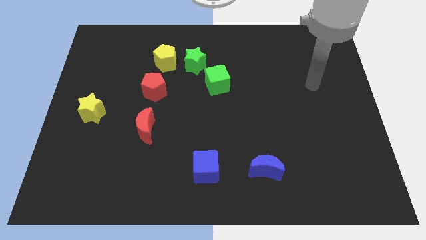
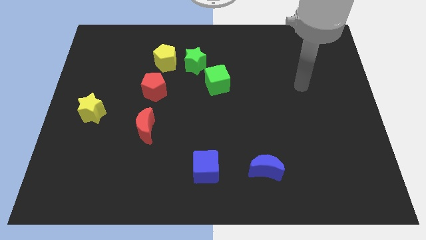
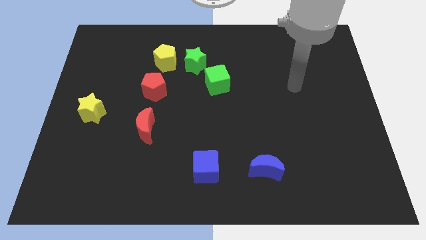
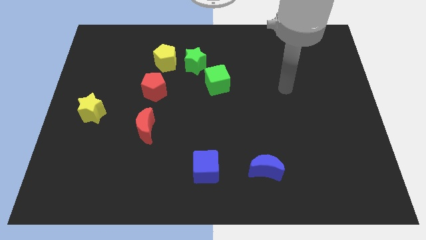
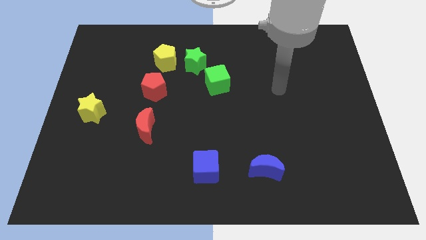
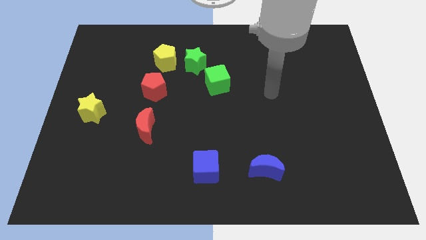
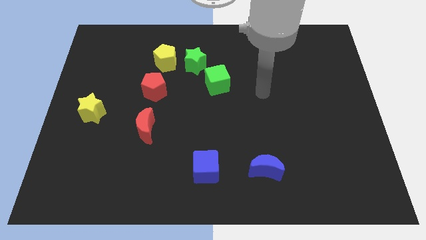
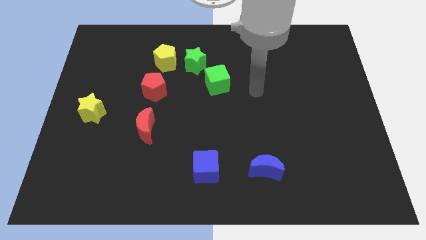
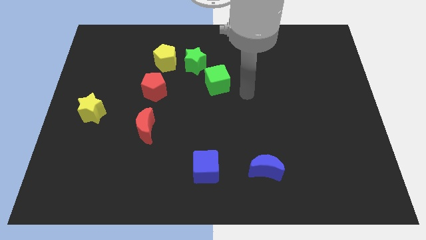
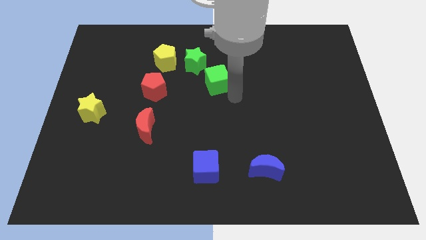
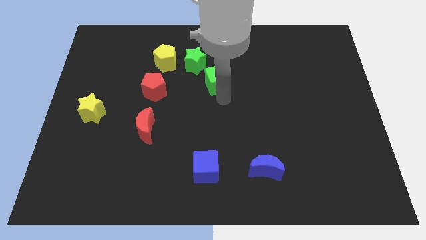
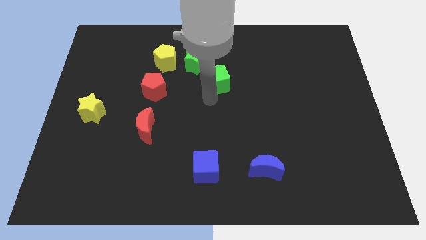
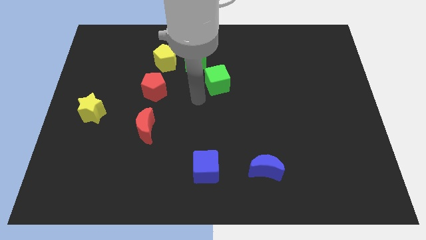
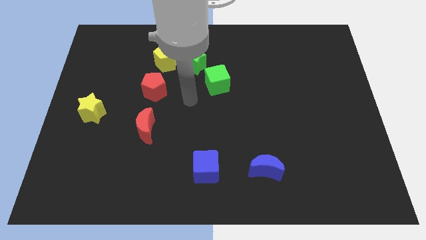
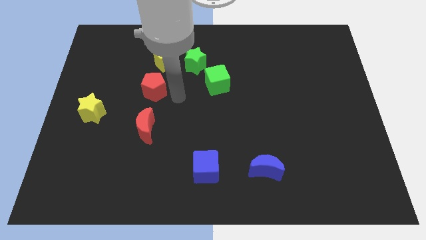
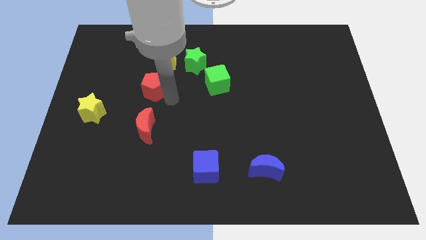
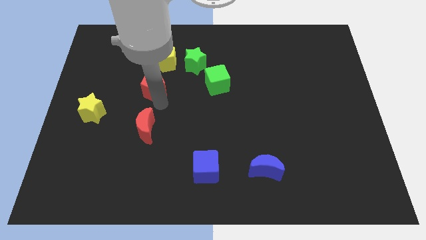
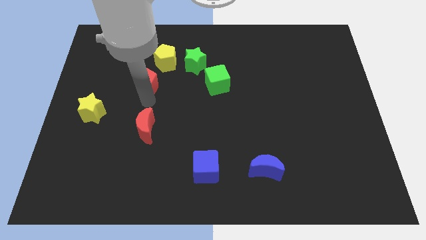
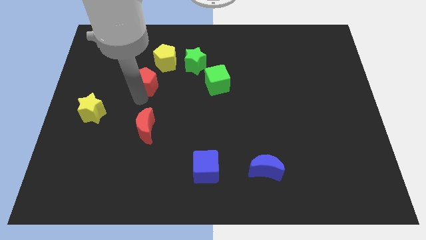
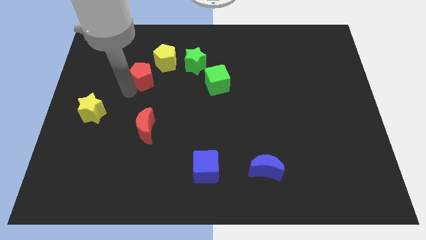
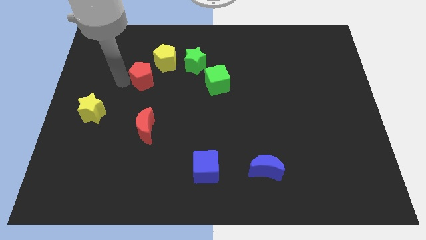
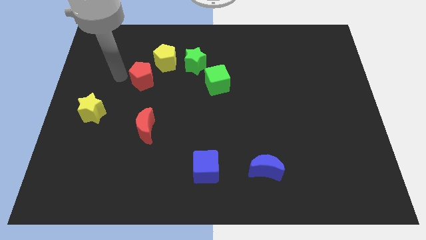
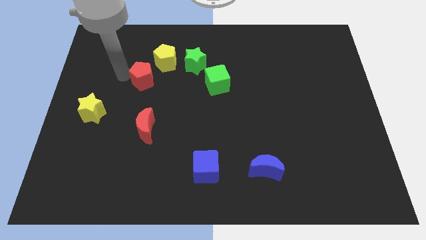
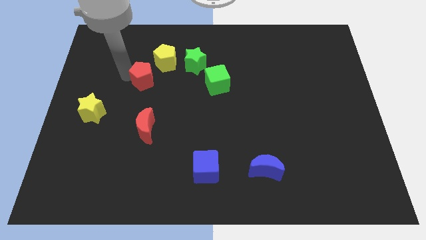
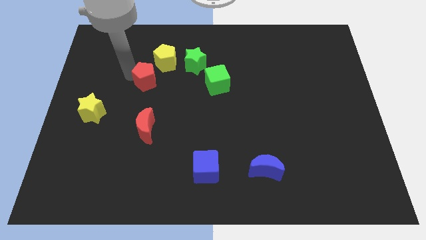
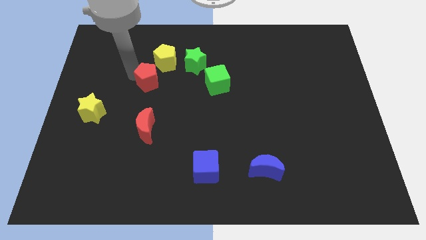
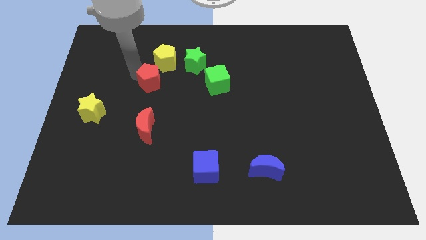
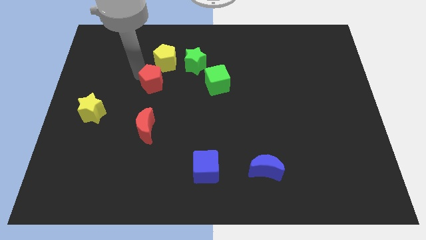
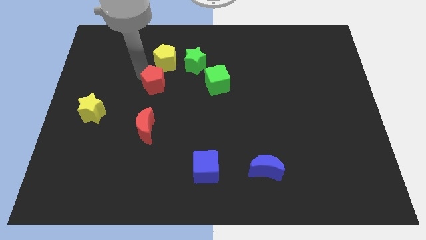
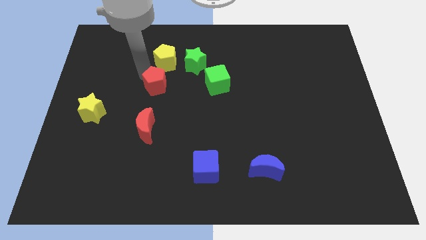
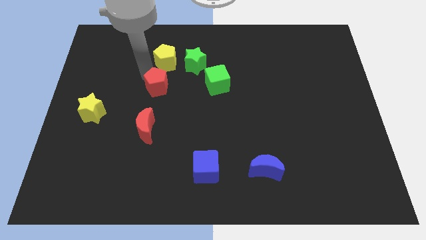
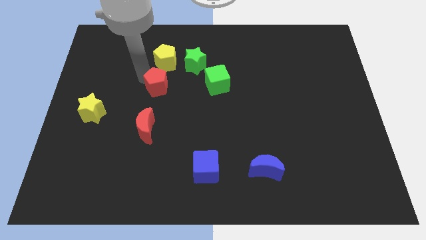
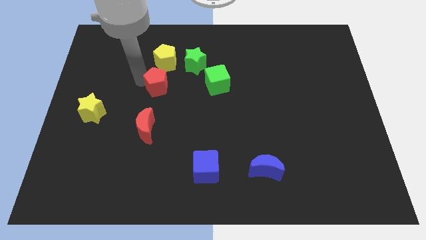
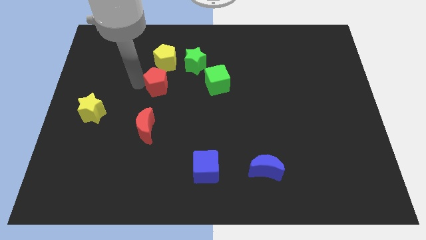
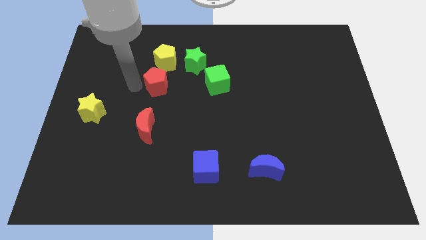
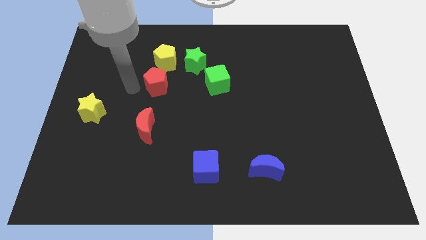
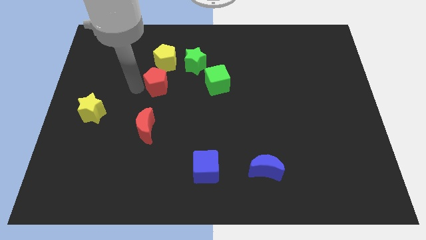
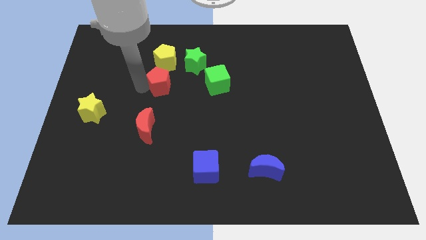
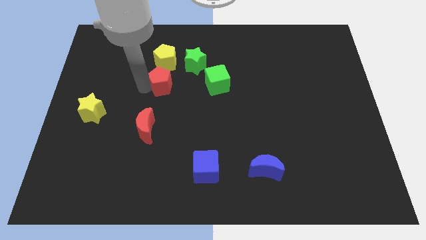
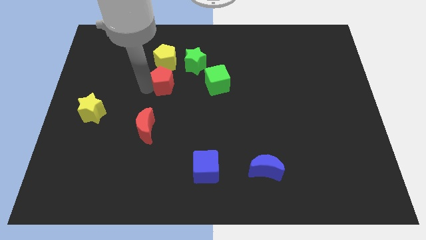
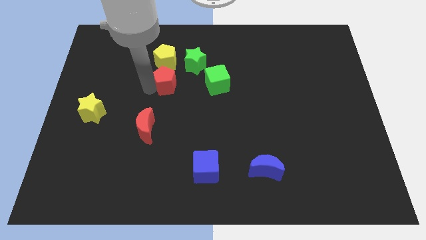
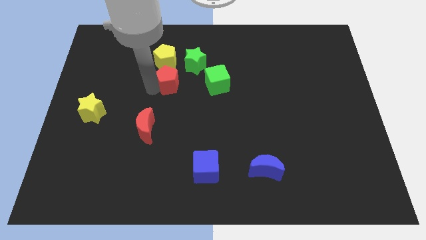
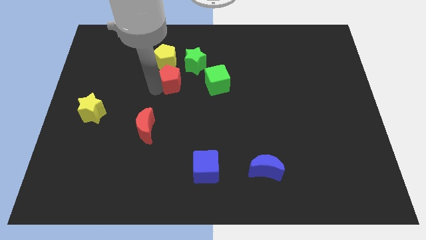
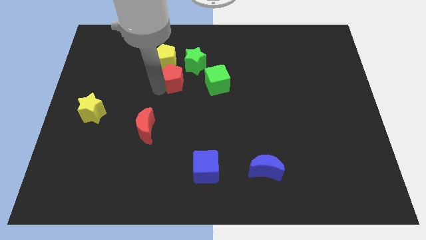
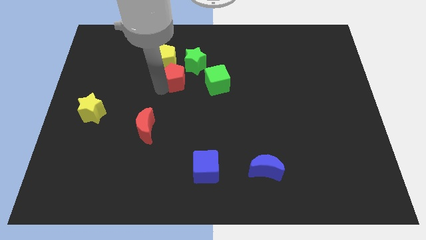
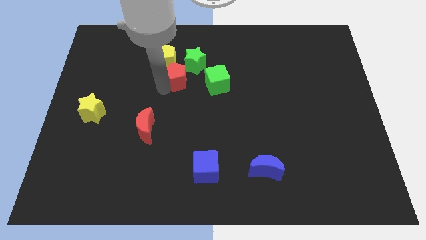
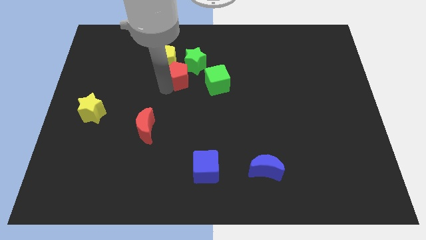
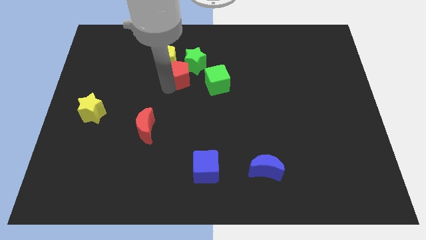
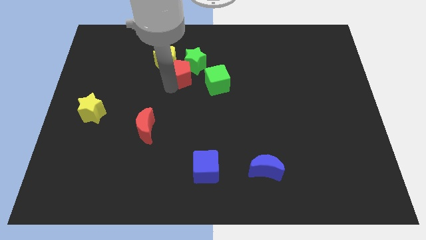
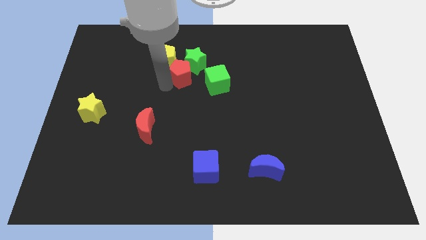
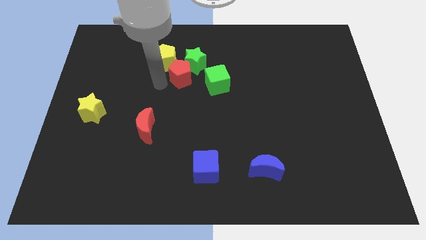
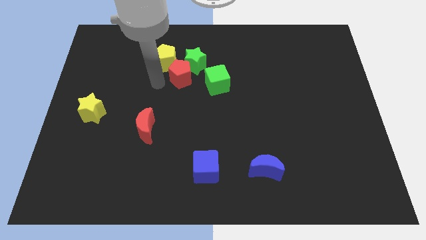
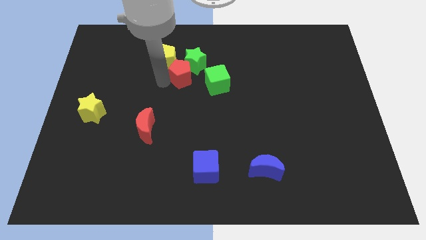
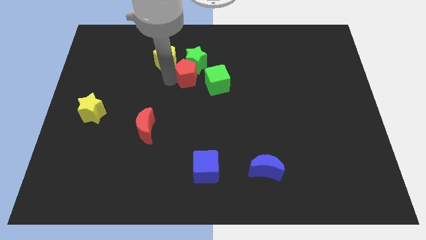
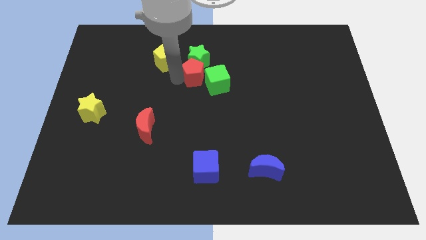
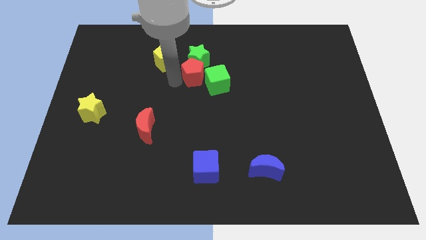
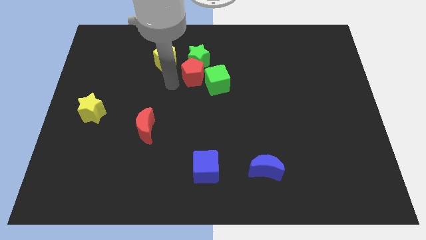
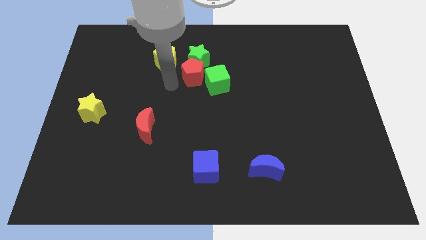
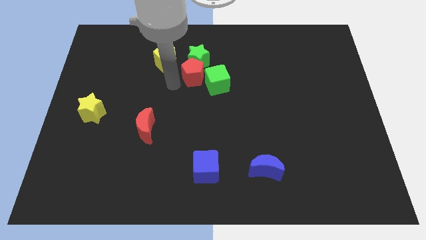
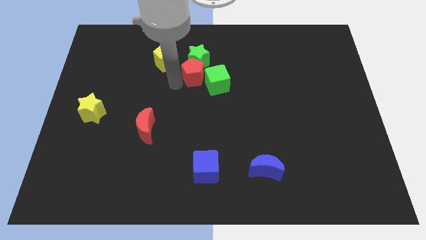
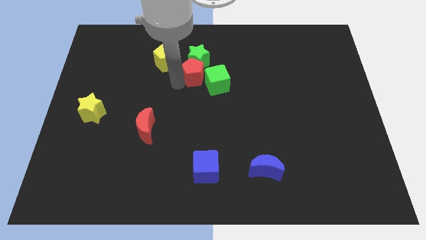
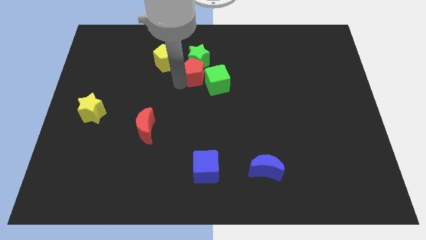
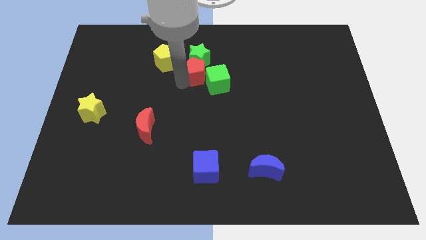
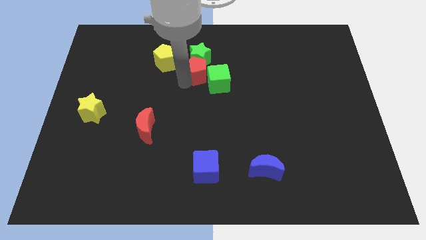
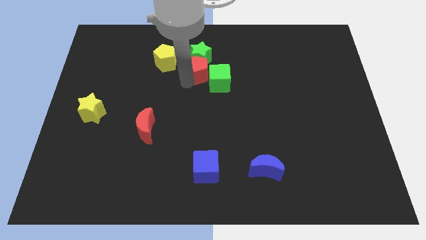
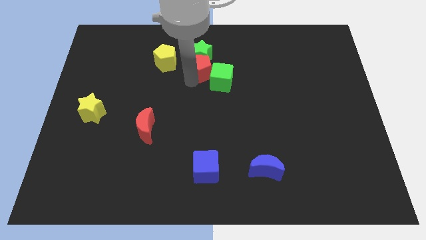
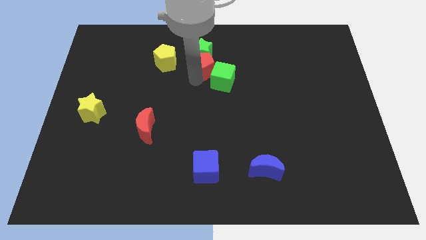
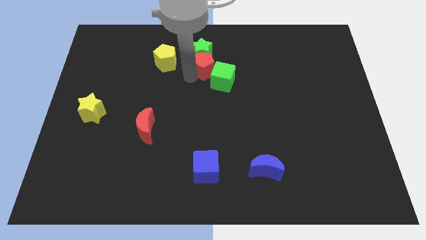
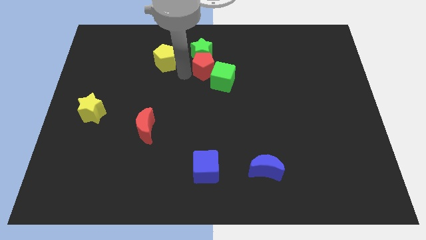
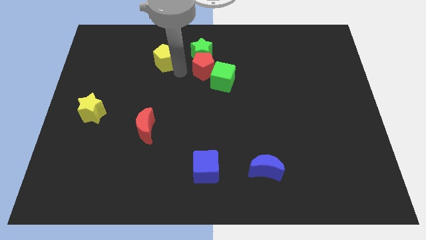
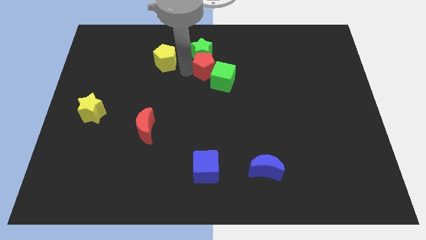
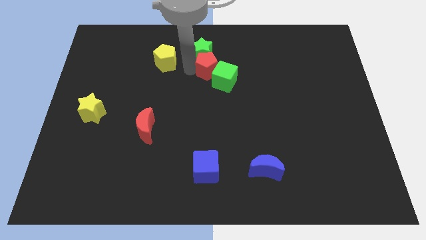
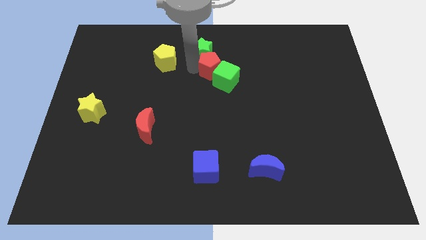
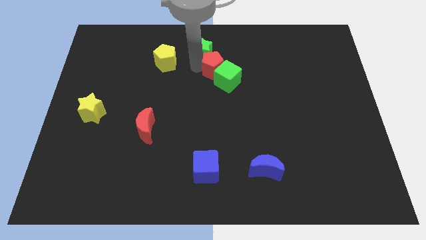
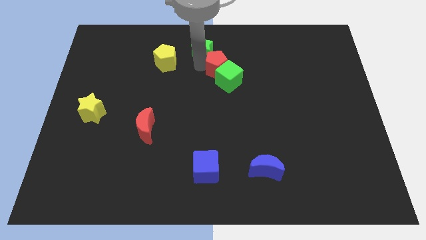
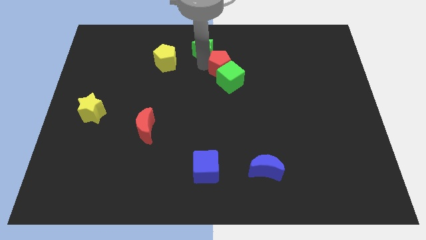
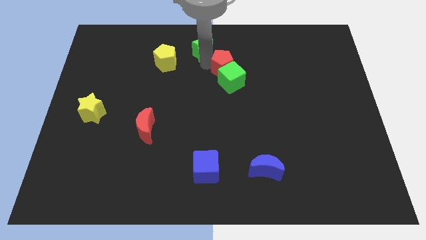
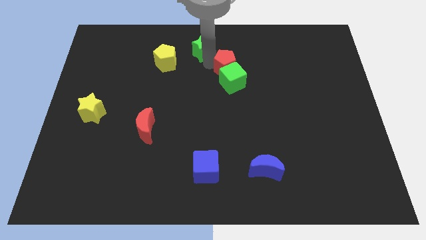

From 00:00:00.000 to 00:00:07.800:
move the red pentagon to the top right side of the green cube
